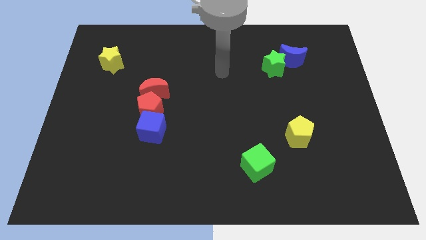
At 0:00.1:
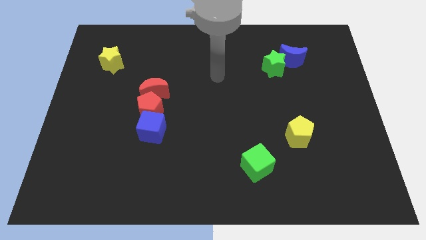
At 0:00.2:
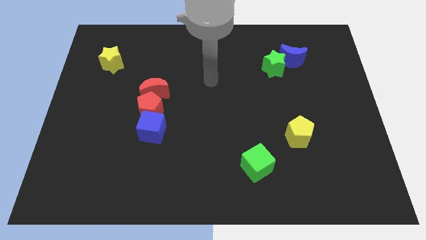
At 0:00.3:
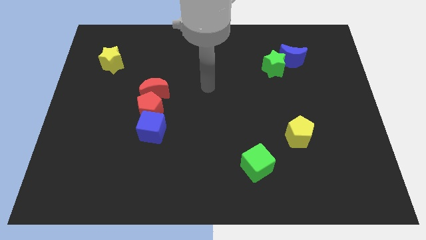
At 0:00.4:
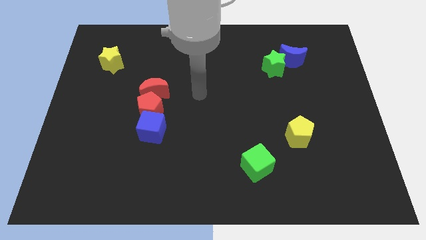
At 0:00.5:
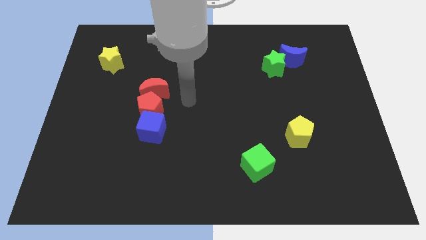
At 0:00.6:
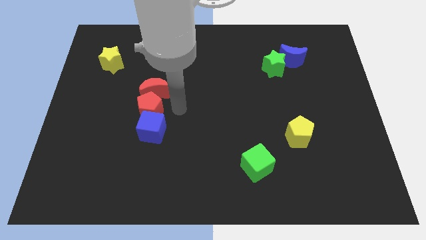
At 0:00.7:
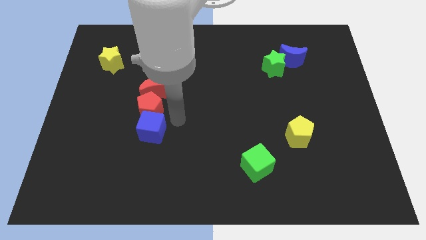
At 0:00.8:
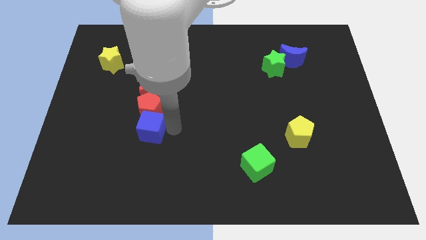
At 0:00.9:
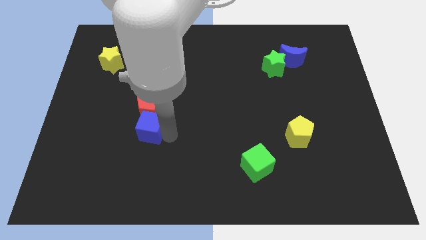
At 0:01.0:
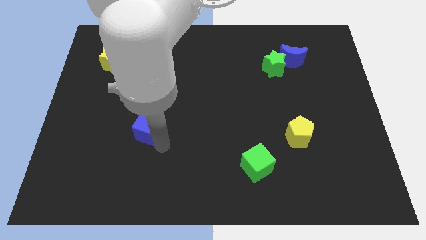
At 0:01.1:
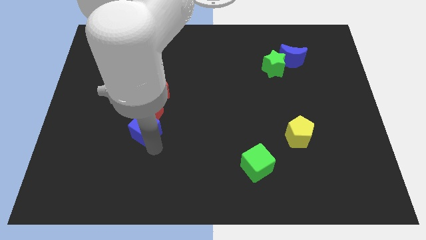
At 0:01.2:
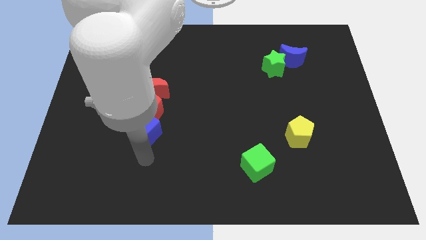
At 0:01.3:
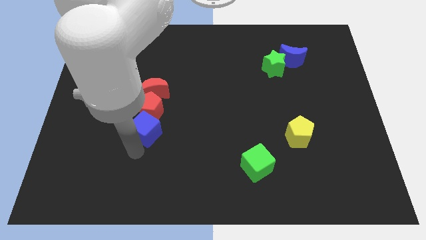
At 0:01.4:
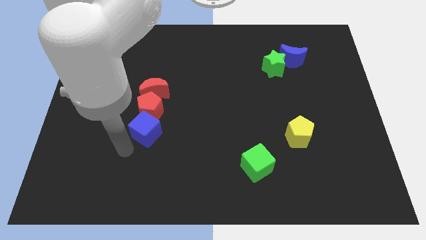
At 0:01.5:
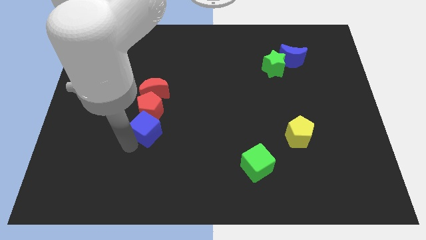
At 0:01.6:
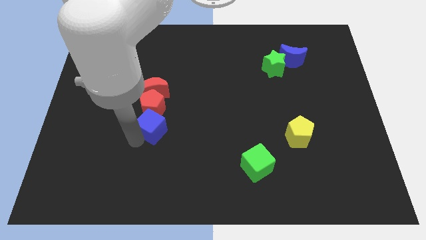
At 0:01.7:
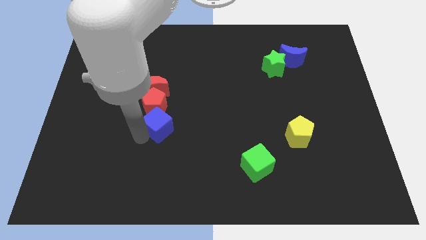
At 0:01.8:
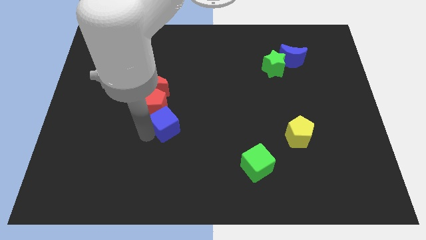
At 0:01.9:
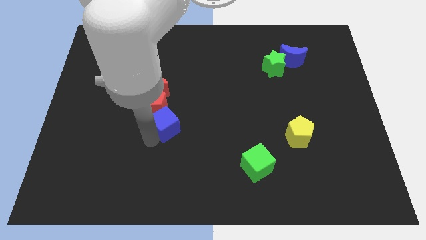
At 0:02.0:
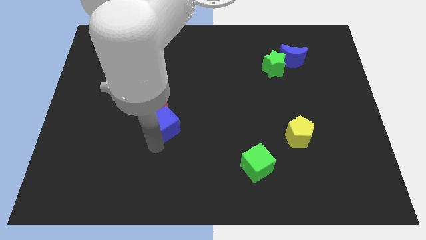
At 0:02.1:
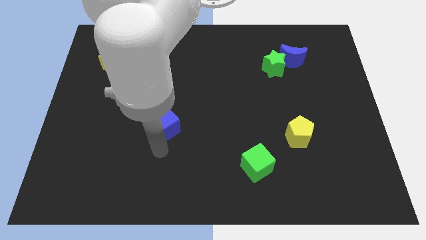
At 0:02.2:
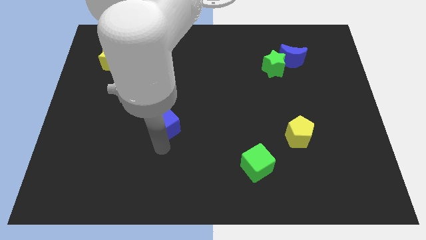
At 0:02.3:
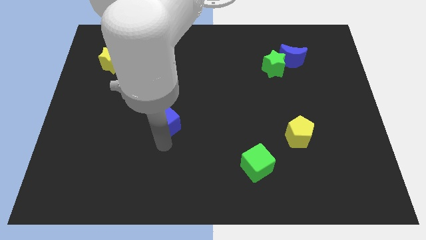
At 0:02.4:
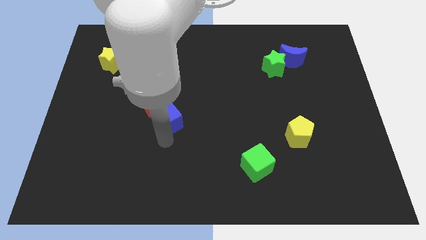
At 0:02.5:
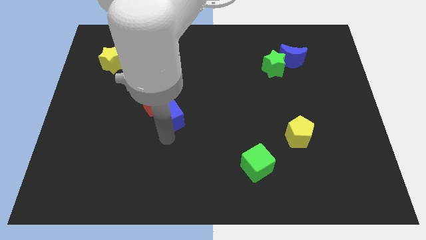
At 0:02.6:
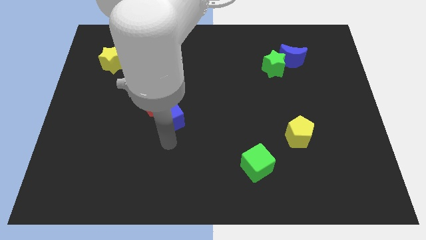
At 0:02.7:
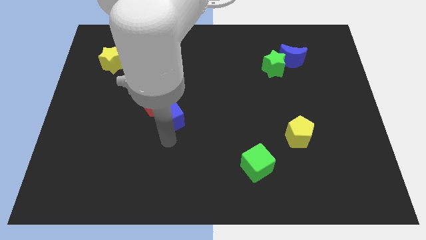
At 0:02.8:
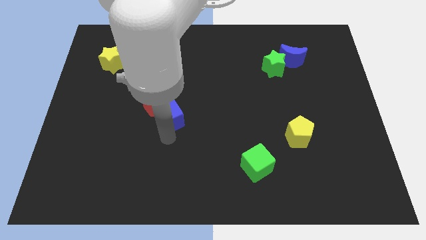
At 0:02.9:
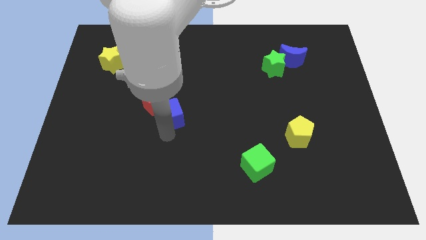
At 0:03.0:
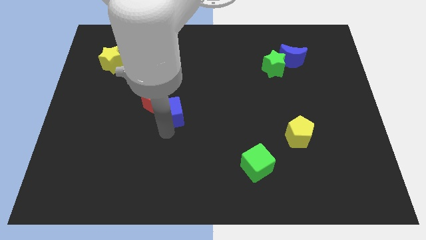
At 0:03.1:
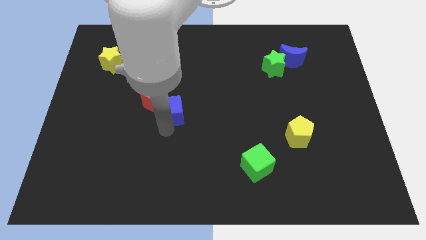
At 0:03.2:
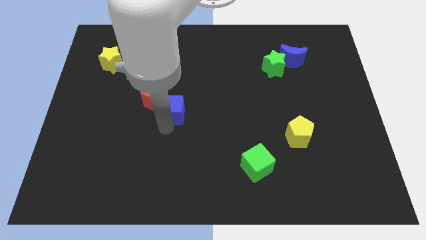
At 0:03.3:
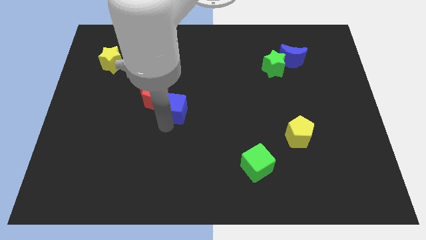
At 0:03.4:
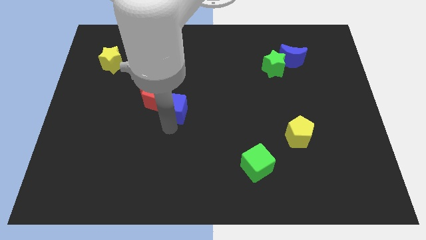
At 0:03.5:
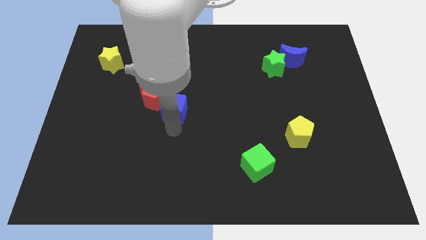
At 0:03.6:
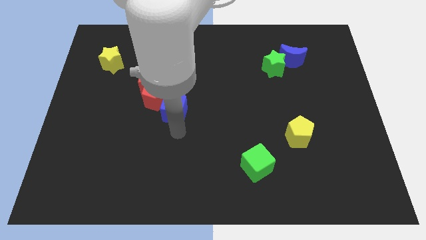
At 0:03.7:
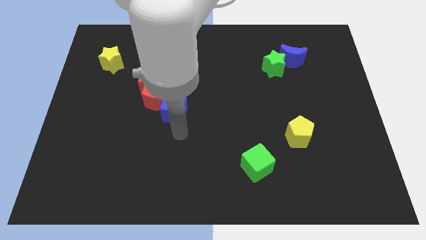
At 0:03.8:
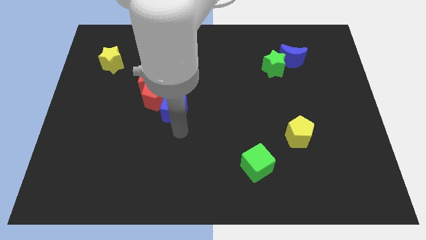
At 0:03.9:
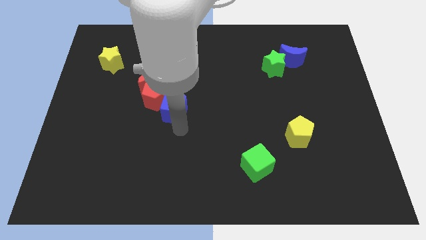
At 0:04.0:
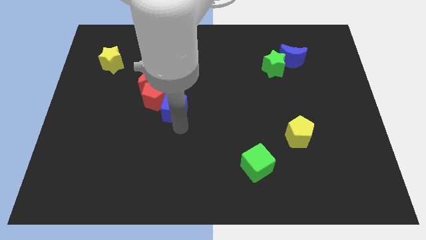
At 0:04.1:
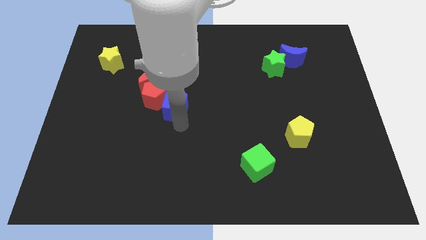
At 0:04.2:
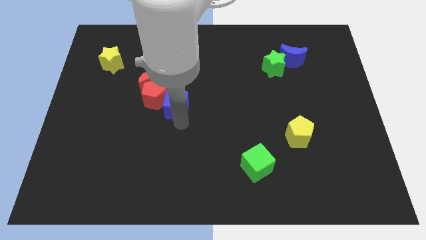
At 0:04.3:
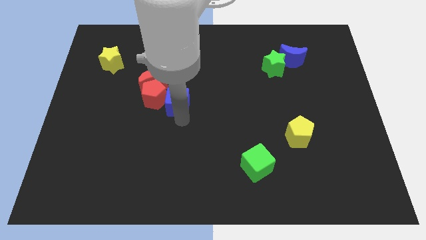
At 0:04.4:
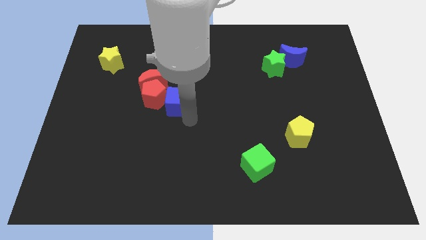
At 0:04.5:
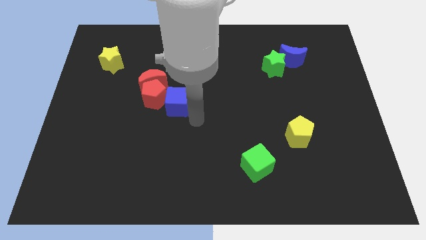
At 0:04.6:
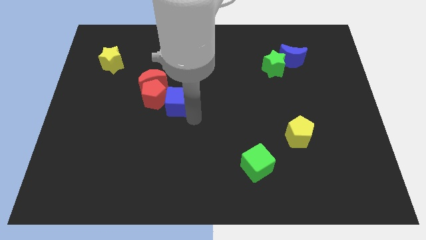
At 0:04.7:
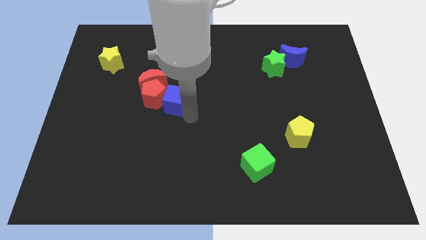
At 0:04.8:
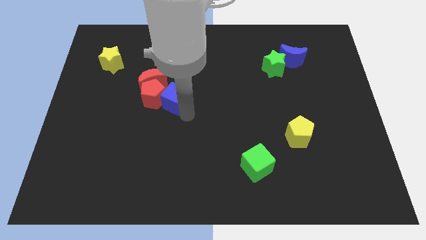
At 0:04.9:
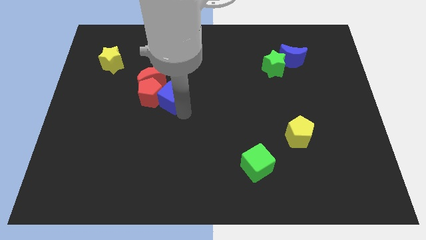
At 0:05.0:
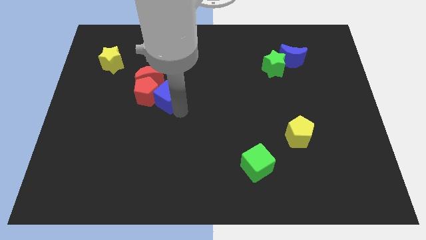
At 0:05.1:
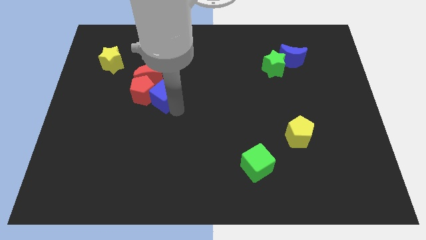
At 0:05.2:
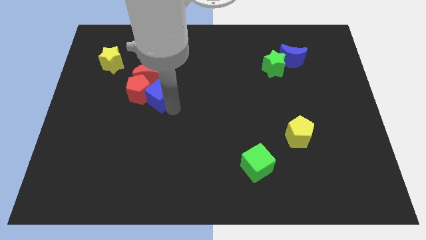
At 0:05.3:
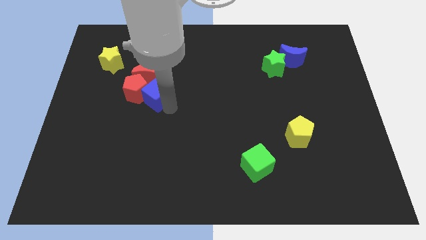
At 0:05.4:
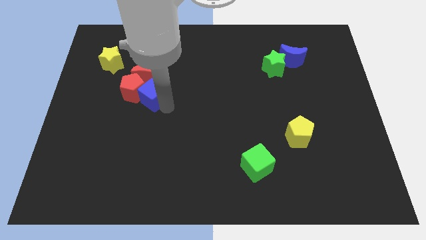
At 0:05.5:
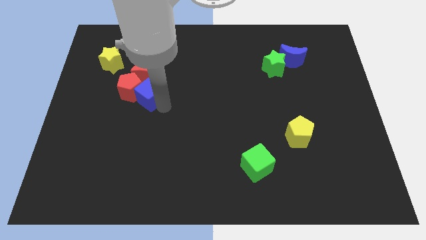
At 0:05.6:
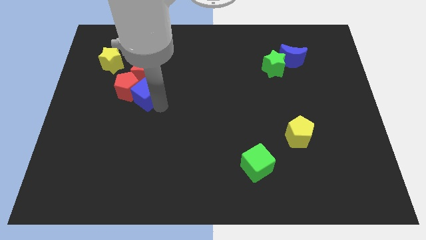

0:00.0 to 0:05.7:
put the blue cube next to the red moon

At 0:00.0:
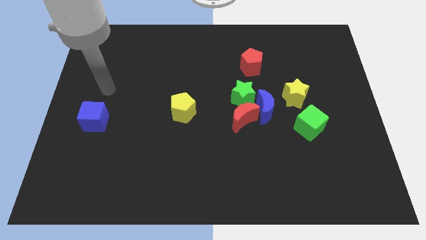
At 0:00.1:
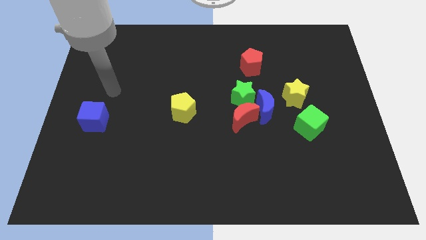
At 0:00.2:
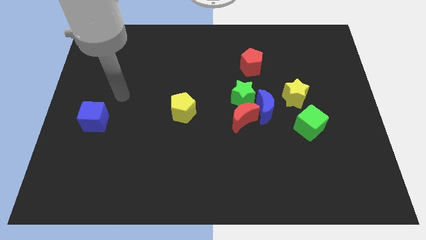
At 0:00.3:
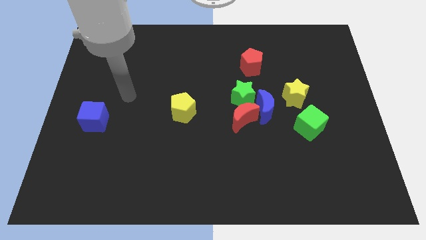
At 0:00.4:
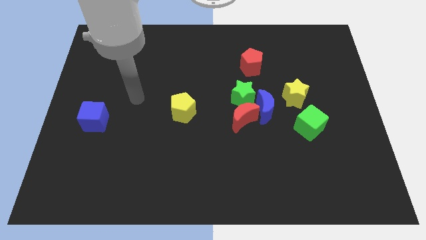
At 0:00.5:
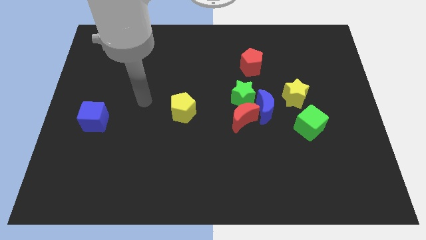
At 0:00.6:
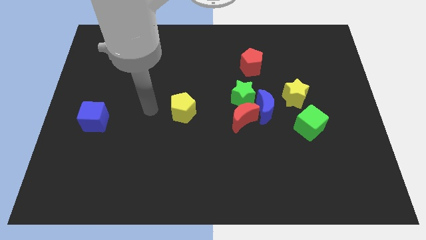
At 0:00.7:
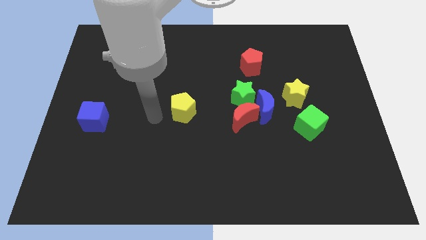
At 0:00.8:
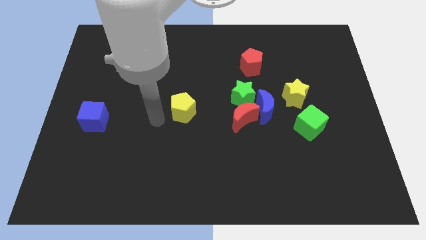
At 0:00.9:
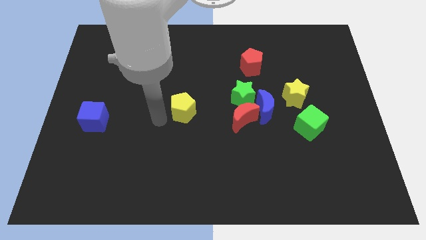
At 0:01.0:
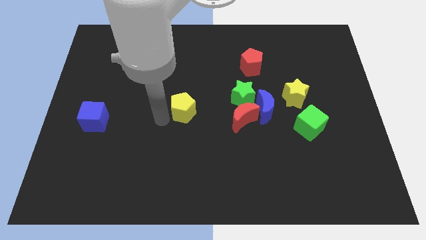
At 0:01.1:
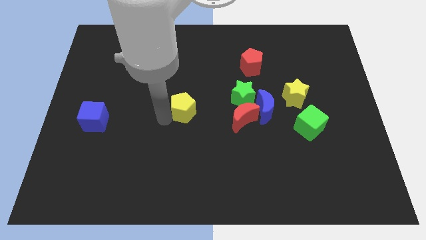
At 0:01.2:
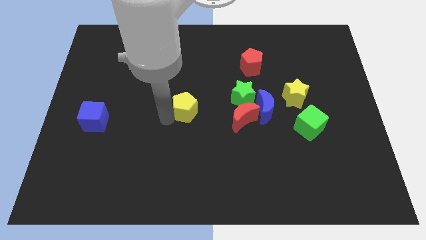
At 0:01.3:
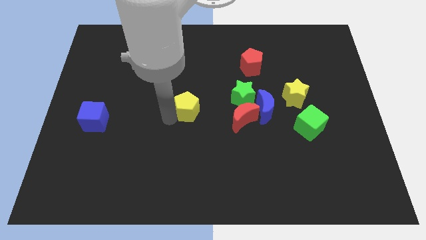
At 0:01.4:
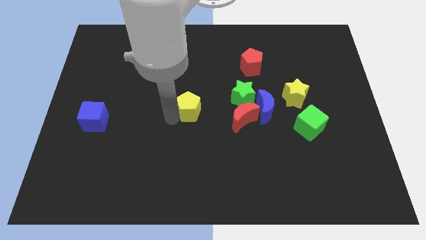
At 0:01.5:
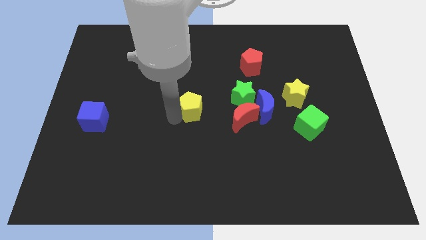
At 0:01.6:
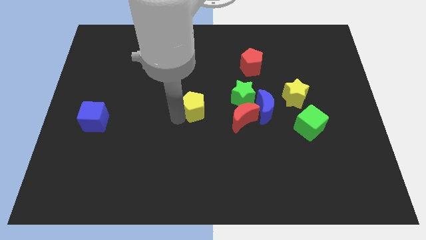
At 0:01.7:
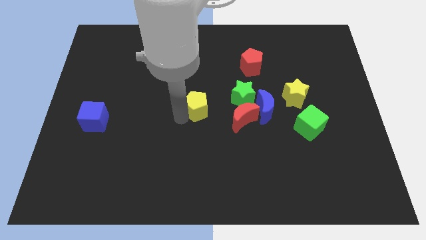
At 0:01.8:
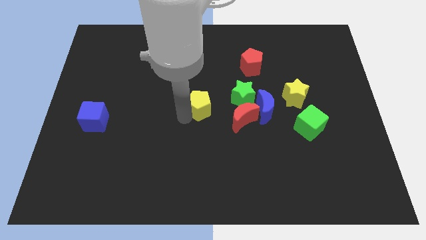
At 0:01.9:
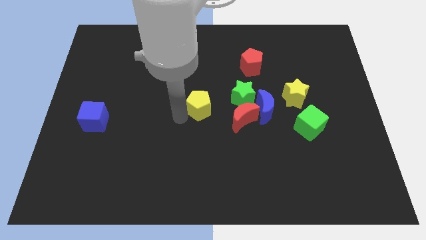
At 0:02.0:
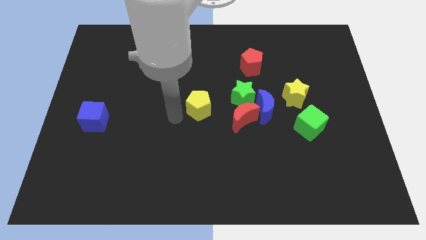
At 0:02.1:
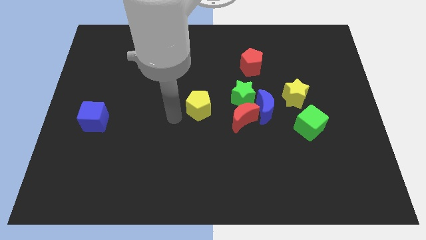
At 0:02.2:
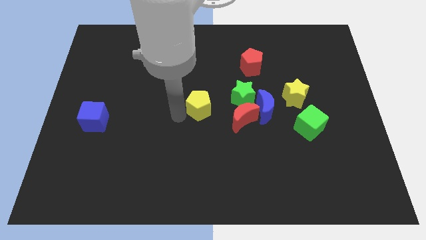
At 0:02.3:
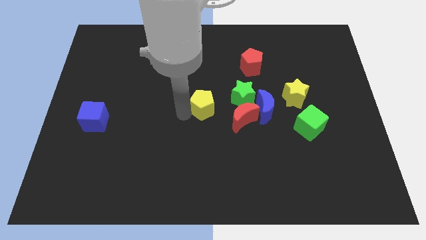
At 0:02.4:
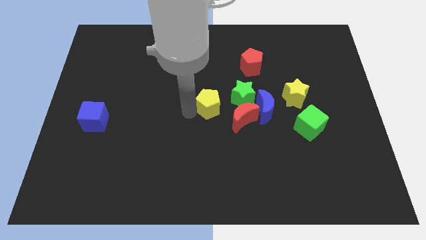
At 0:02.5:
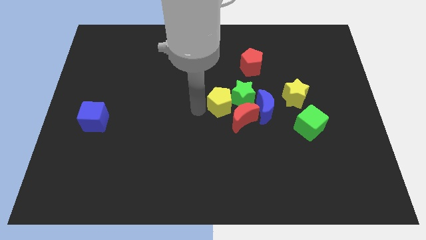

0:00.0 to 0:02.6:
push the yellow pentagon to the green star
